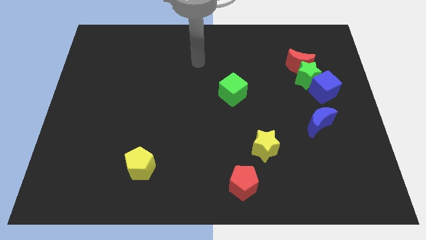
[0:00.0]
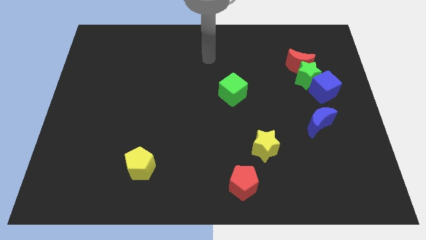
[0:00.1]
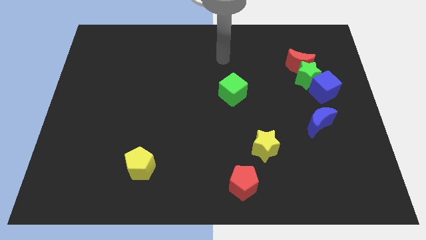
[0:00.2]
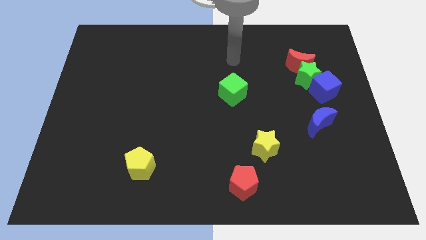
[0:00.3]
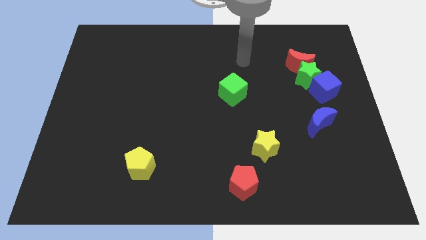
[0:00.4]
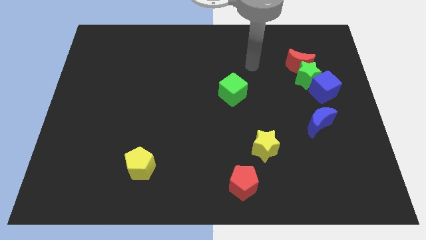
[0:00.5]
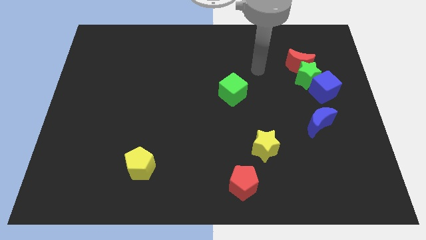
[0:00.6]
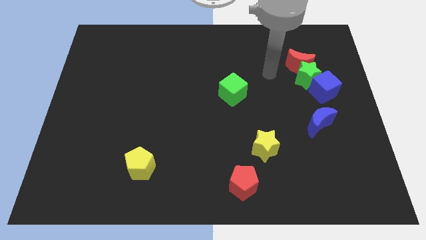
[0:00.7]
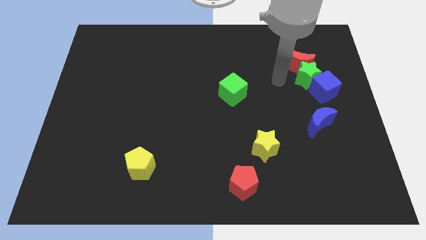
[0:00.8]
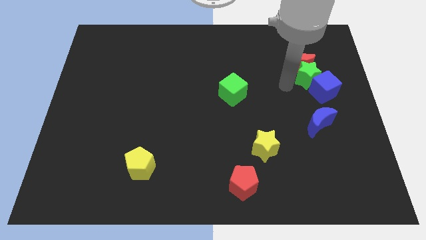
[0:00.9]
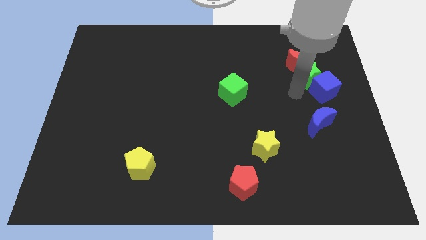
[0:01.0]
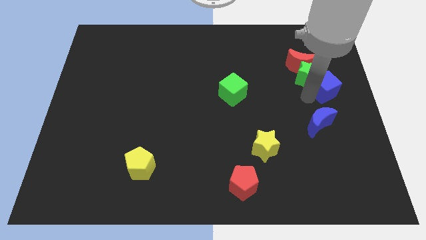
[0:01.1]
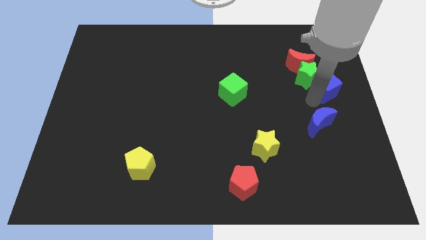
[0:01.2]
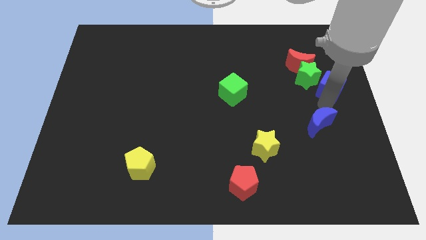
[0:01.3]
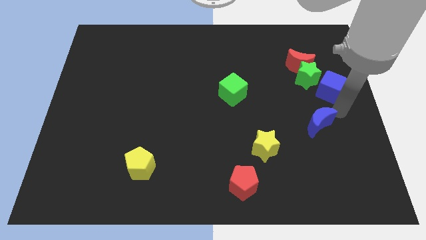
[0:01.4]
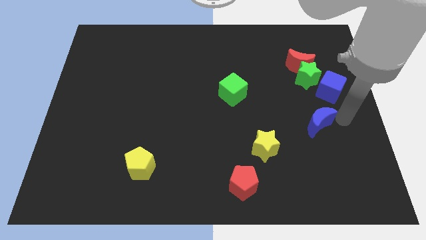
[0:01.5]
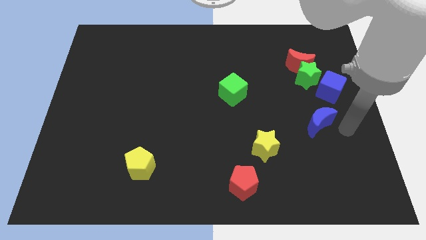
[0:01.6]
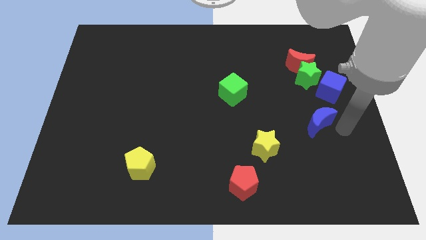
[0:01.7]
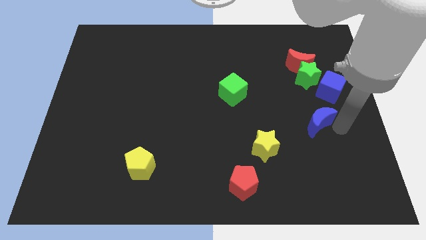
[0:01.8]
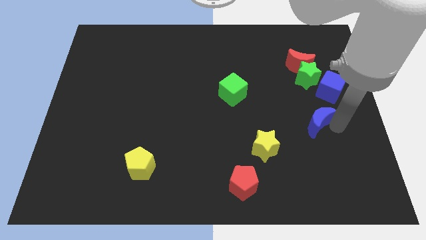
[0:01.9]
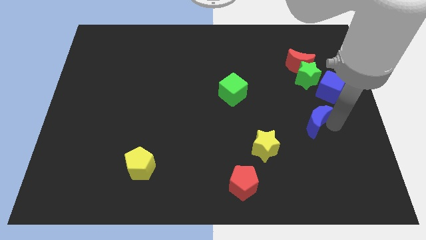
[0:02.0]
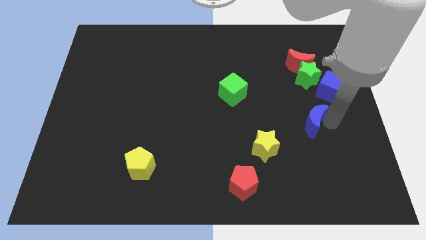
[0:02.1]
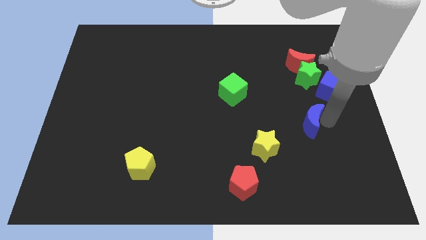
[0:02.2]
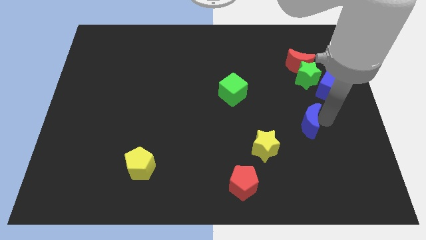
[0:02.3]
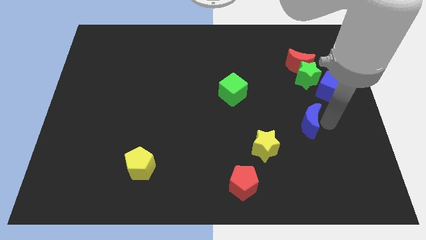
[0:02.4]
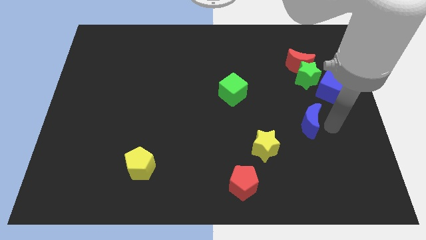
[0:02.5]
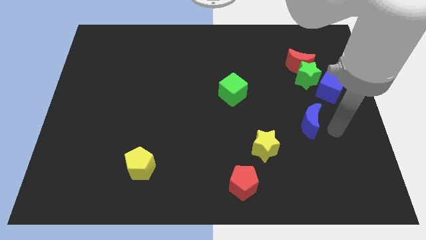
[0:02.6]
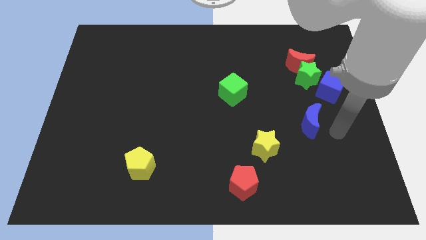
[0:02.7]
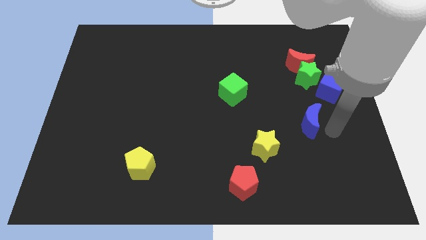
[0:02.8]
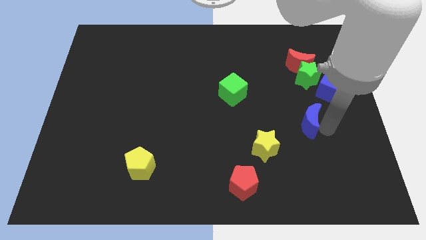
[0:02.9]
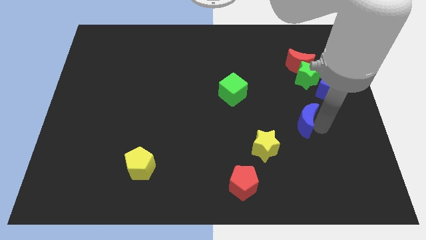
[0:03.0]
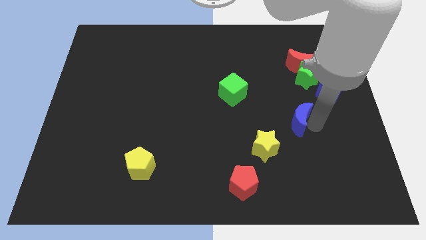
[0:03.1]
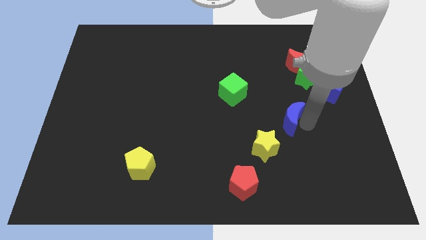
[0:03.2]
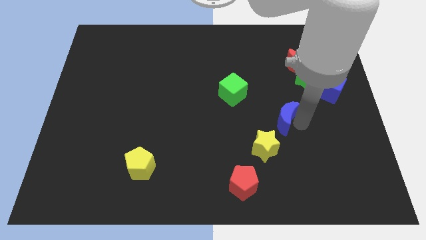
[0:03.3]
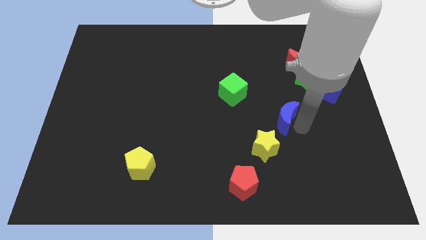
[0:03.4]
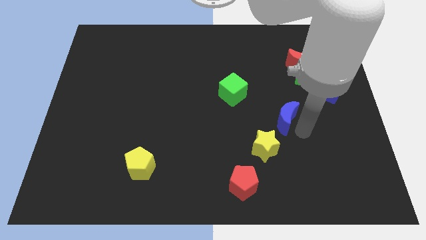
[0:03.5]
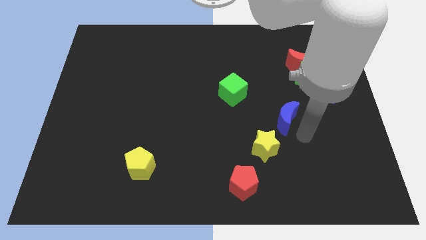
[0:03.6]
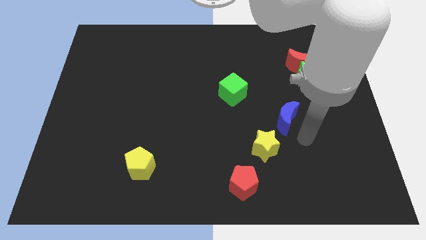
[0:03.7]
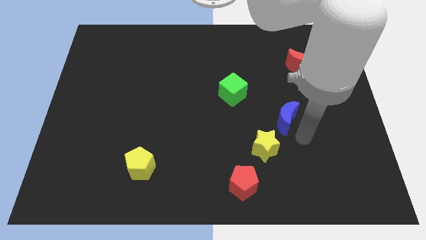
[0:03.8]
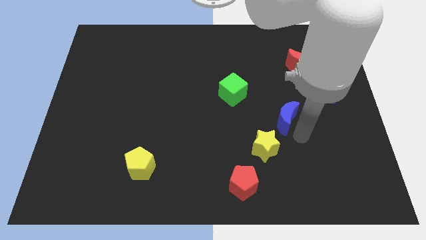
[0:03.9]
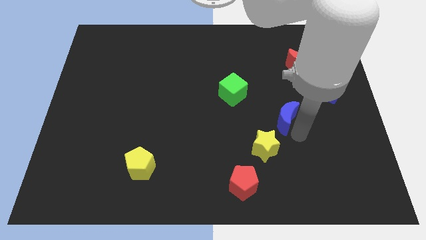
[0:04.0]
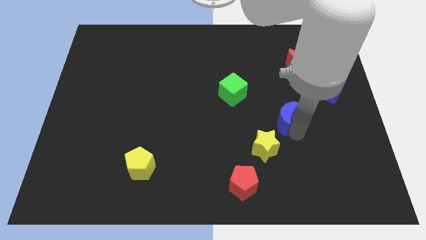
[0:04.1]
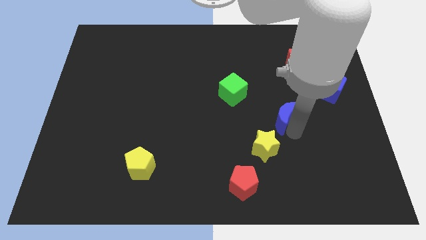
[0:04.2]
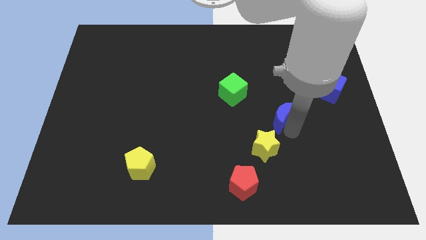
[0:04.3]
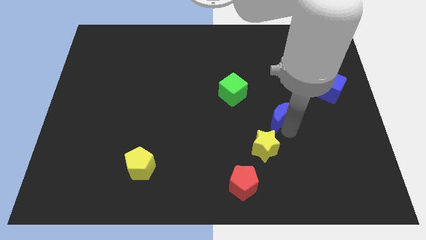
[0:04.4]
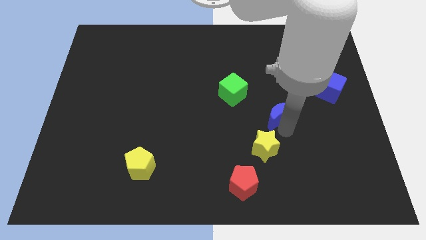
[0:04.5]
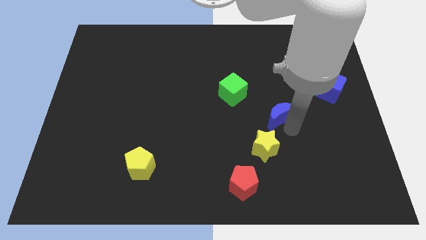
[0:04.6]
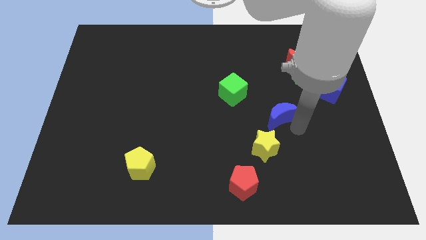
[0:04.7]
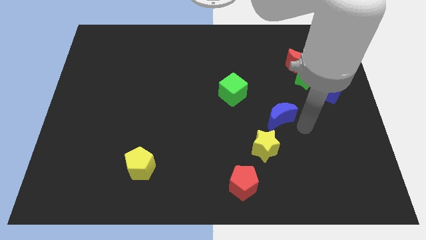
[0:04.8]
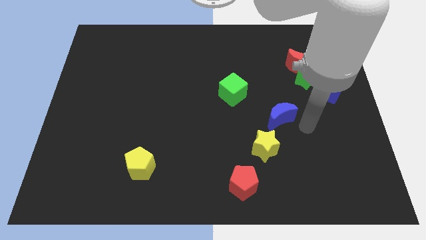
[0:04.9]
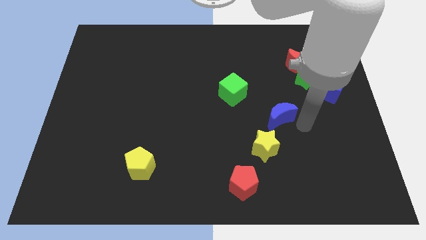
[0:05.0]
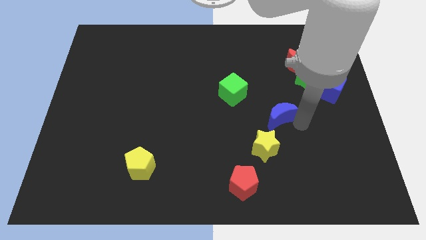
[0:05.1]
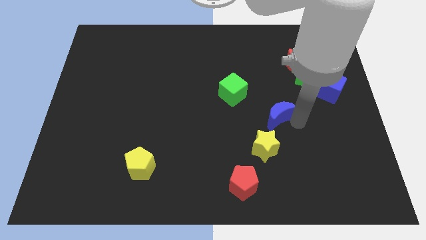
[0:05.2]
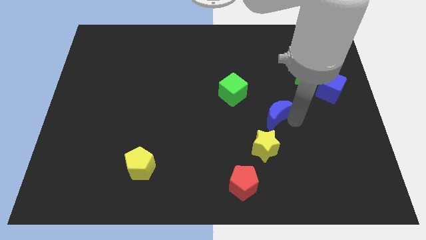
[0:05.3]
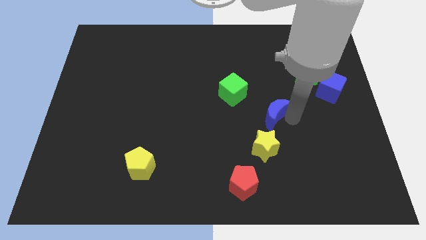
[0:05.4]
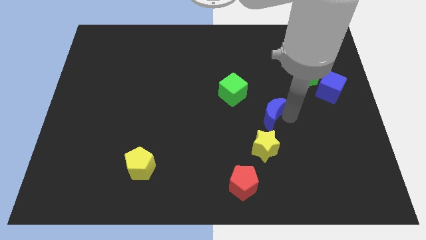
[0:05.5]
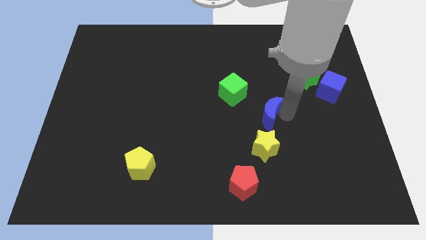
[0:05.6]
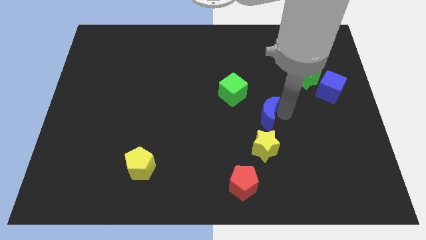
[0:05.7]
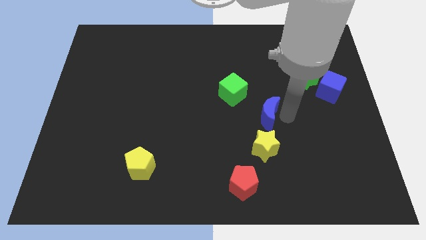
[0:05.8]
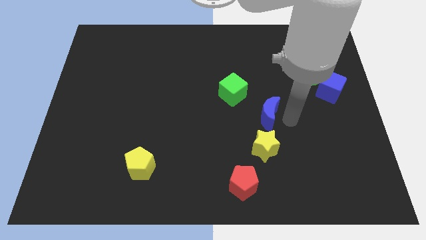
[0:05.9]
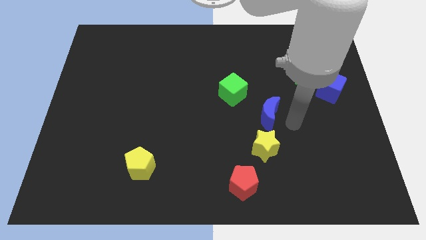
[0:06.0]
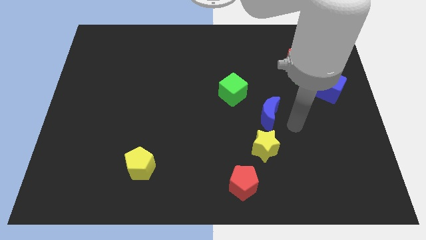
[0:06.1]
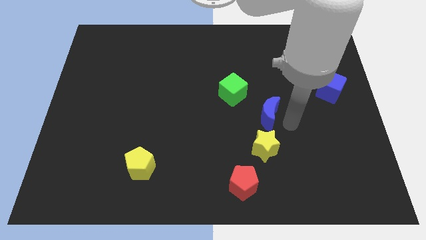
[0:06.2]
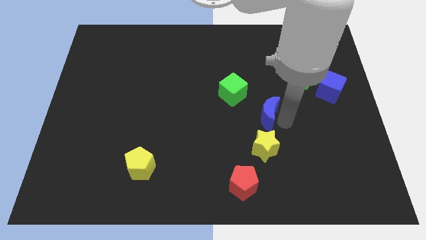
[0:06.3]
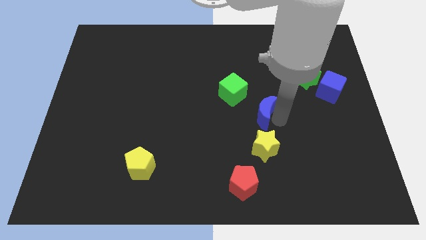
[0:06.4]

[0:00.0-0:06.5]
push the blue moon to the middle of the board
